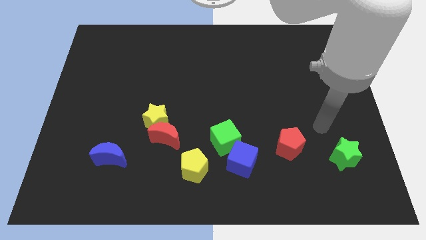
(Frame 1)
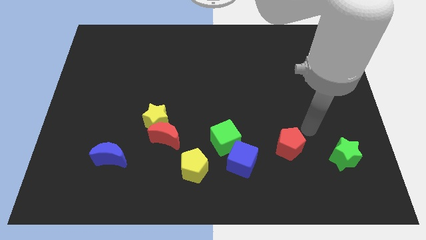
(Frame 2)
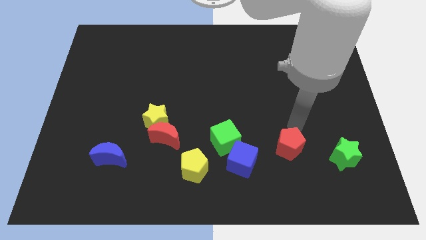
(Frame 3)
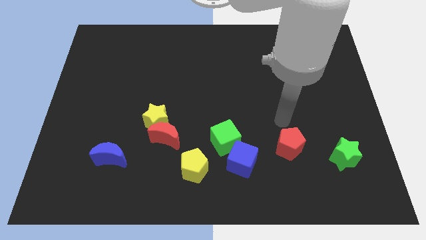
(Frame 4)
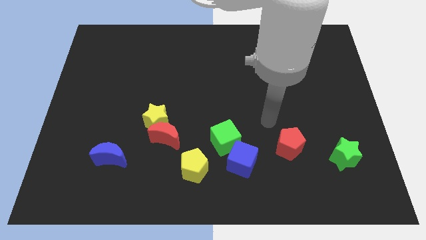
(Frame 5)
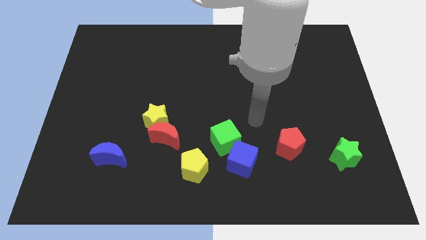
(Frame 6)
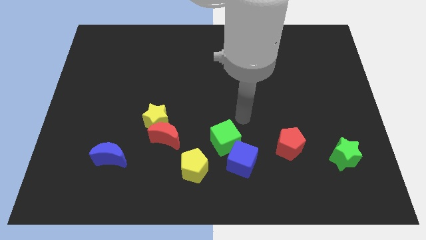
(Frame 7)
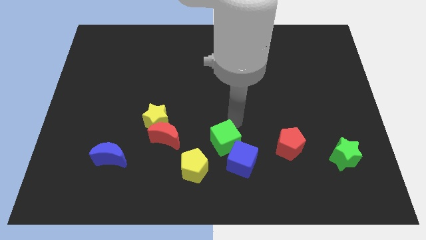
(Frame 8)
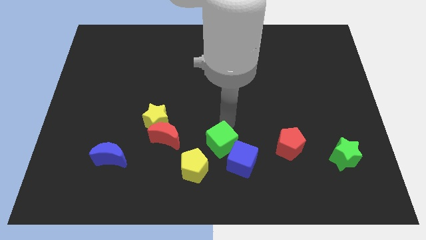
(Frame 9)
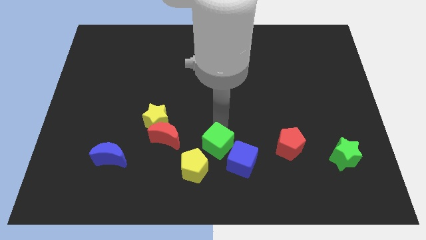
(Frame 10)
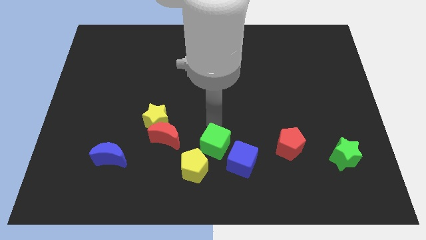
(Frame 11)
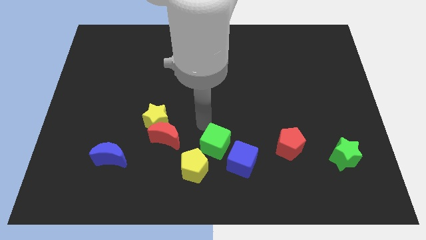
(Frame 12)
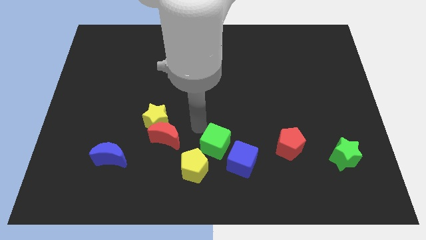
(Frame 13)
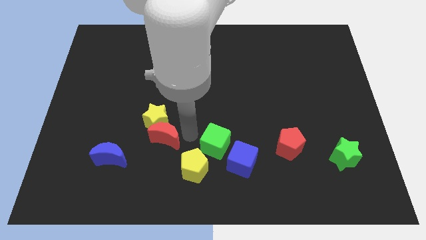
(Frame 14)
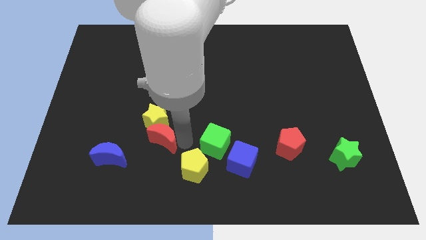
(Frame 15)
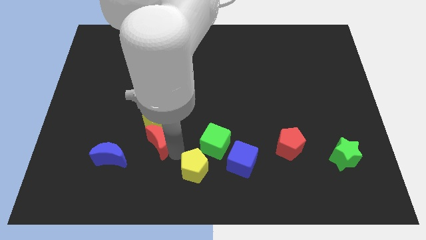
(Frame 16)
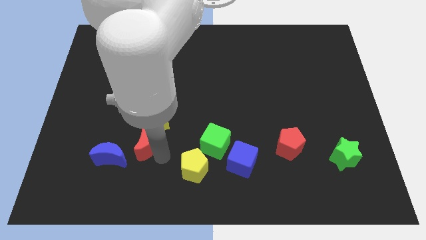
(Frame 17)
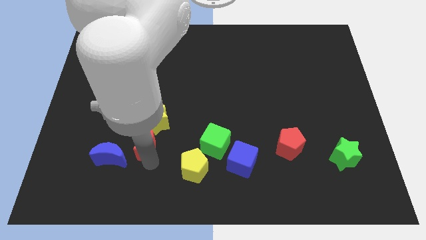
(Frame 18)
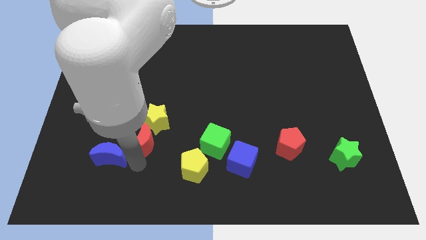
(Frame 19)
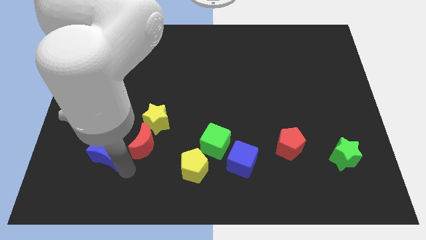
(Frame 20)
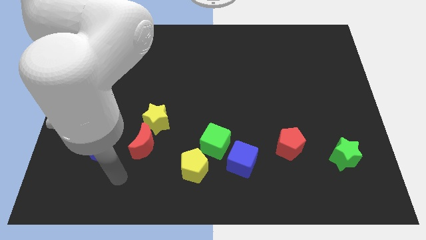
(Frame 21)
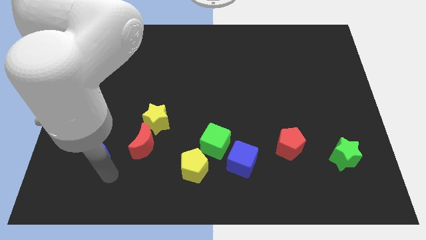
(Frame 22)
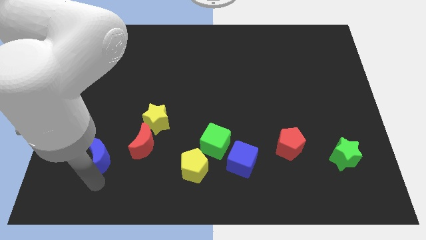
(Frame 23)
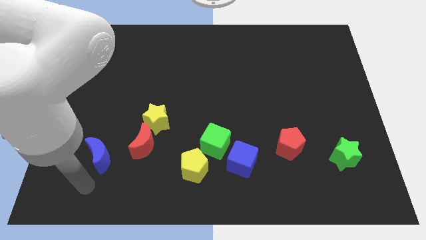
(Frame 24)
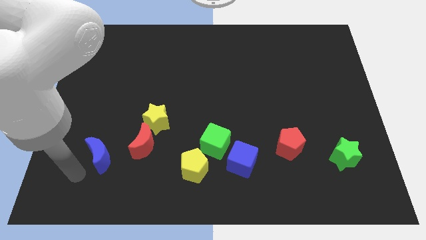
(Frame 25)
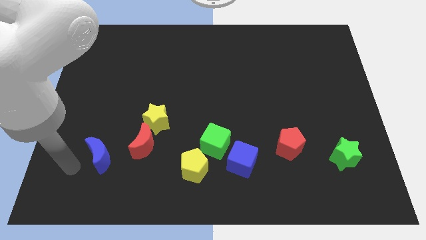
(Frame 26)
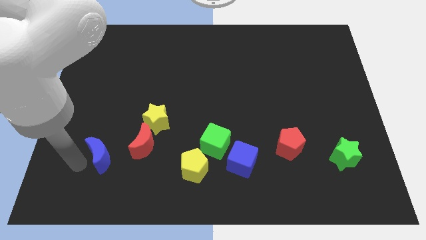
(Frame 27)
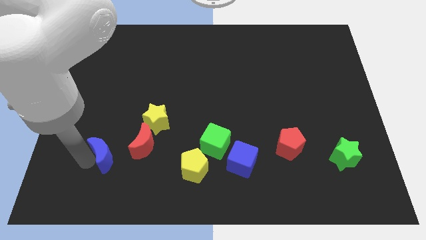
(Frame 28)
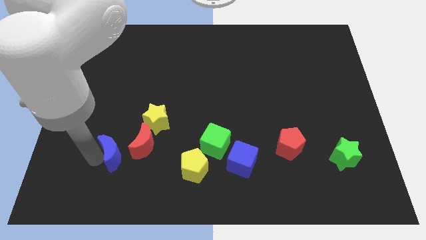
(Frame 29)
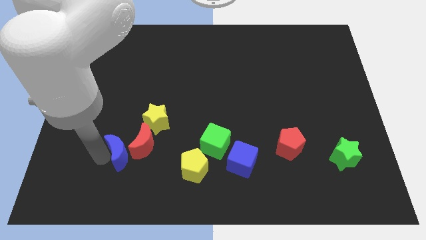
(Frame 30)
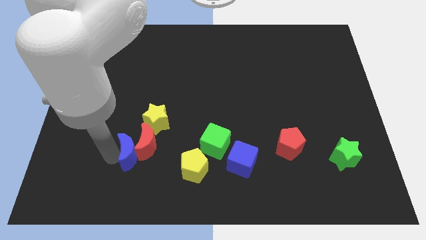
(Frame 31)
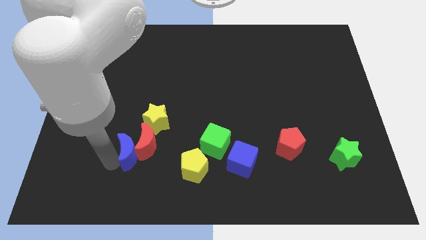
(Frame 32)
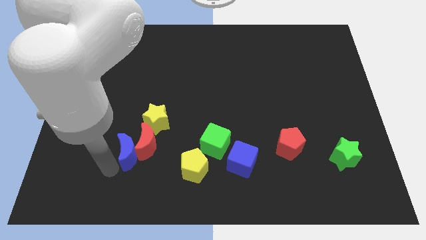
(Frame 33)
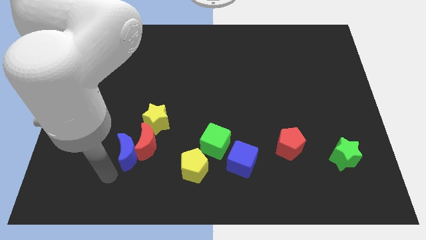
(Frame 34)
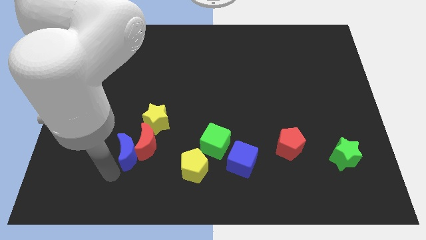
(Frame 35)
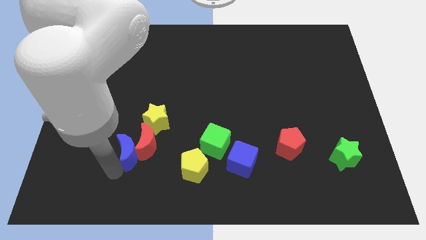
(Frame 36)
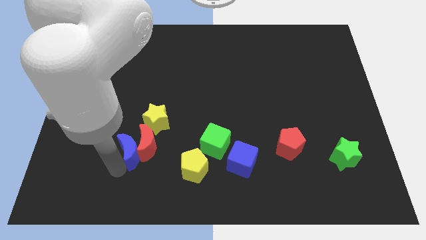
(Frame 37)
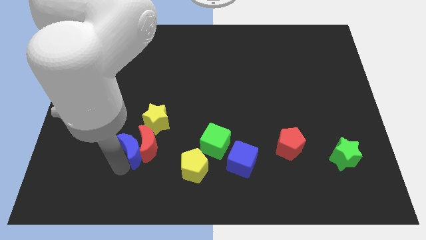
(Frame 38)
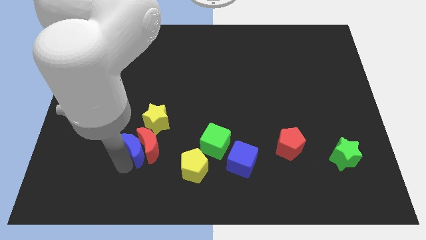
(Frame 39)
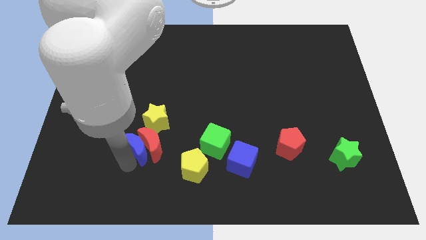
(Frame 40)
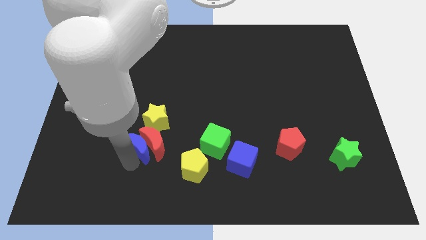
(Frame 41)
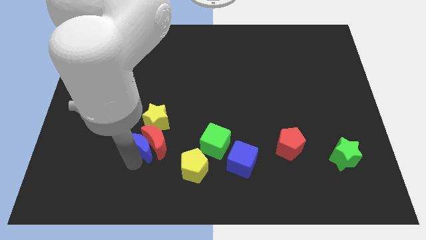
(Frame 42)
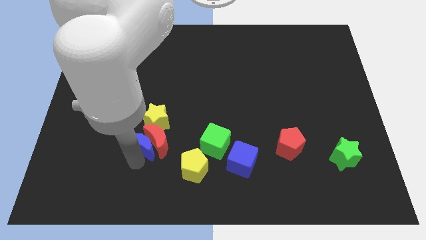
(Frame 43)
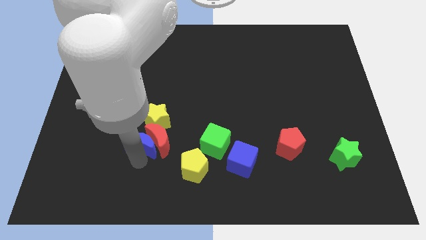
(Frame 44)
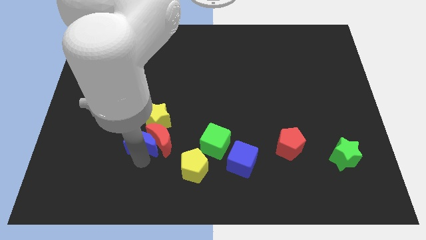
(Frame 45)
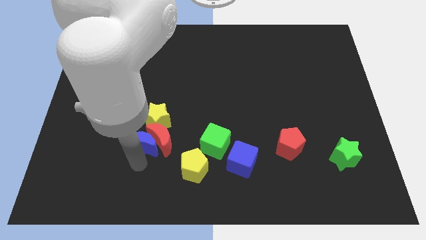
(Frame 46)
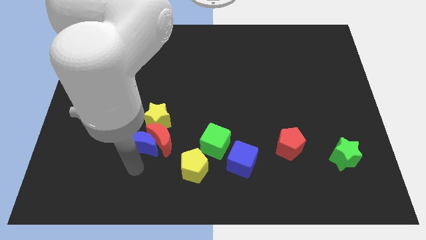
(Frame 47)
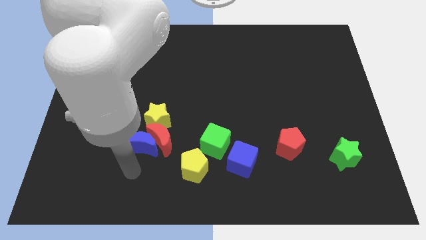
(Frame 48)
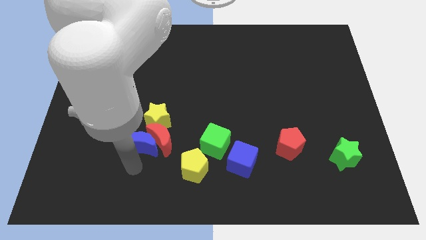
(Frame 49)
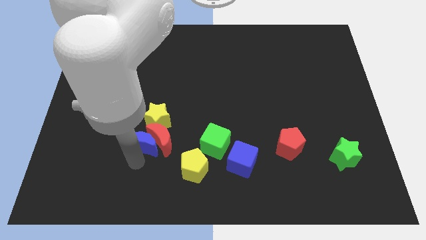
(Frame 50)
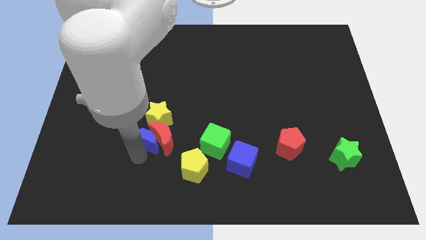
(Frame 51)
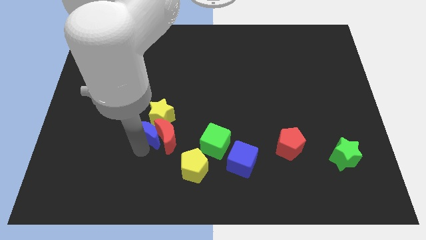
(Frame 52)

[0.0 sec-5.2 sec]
put the blue moon next to the yellow star

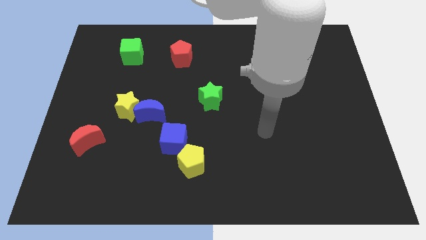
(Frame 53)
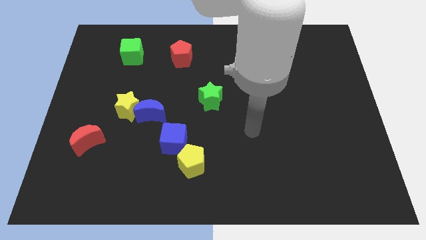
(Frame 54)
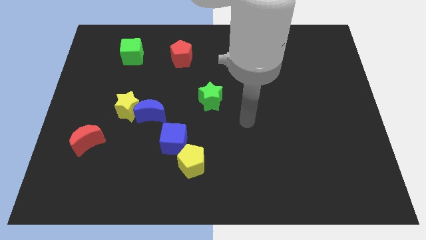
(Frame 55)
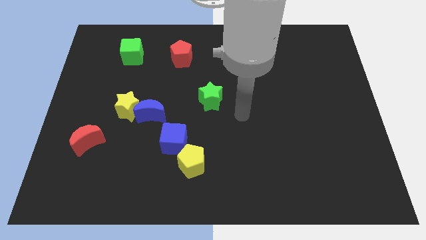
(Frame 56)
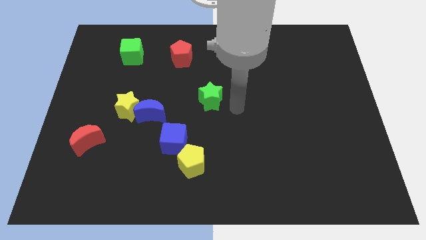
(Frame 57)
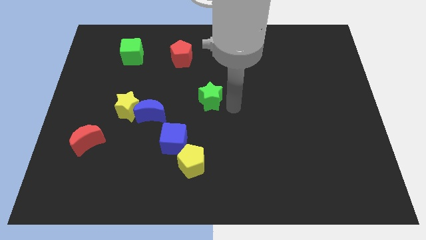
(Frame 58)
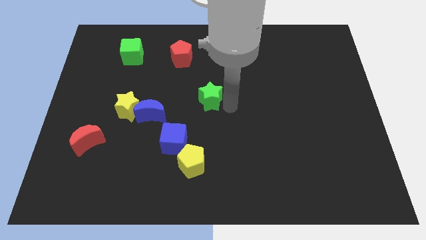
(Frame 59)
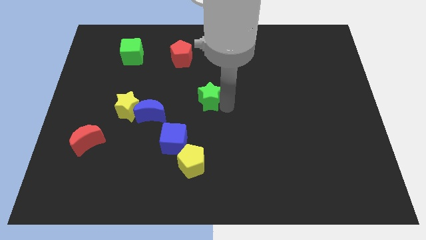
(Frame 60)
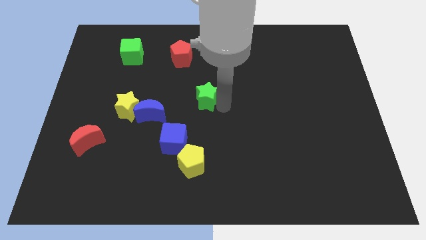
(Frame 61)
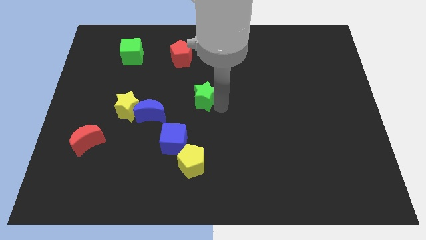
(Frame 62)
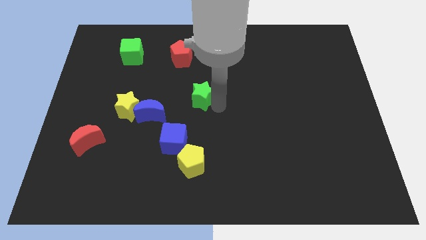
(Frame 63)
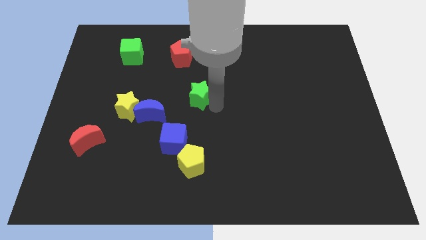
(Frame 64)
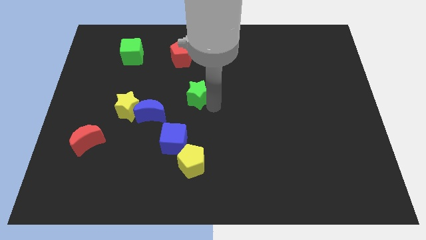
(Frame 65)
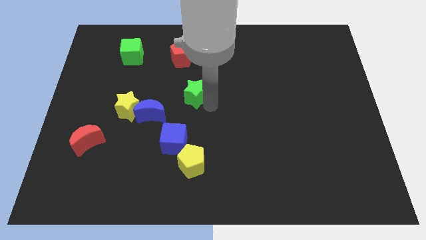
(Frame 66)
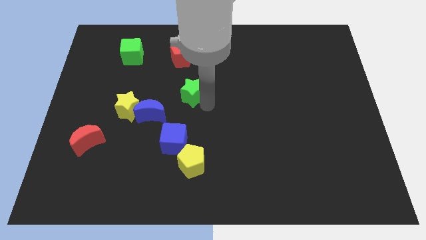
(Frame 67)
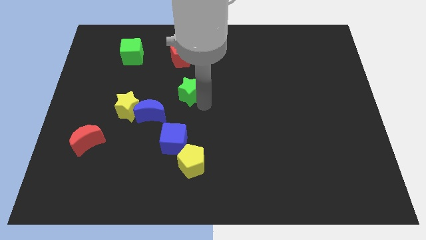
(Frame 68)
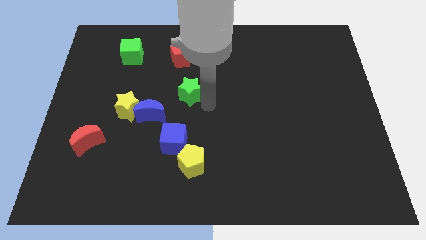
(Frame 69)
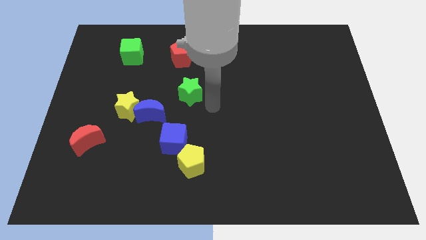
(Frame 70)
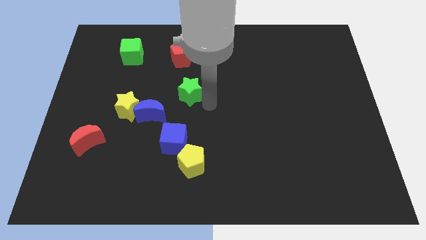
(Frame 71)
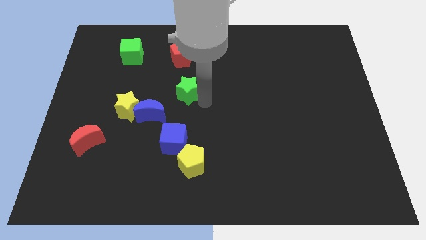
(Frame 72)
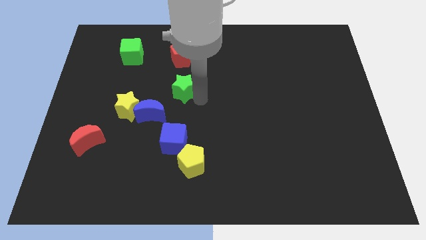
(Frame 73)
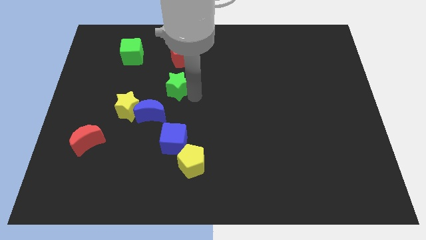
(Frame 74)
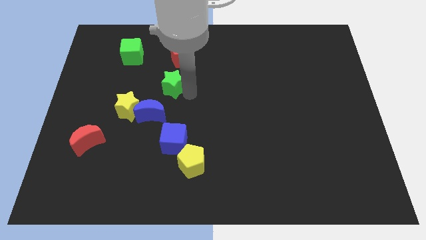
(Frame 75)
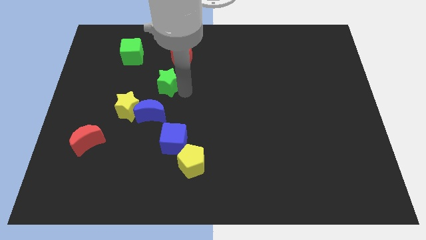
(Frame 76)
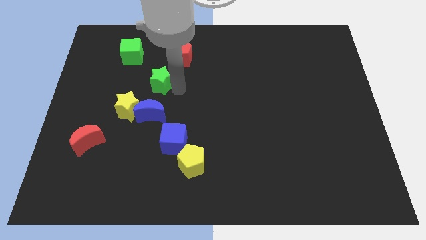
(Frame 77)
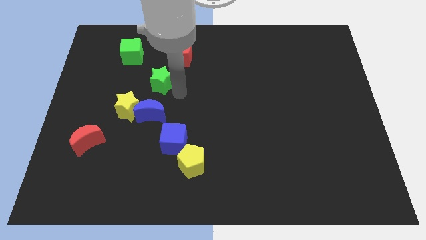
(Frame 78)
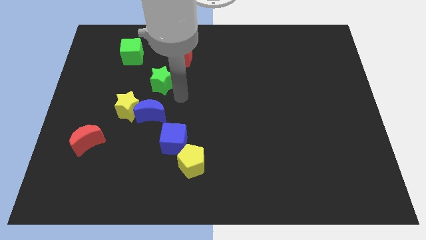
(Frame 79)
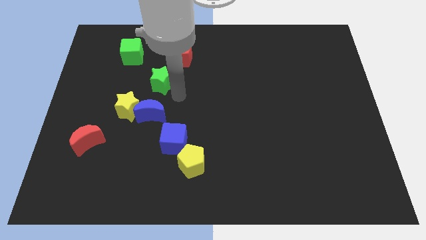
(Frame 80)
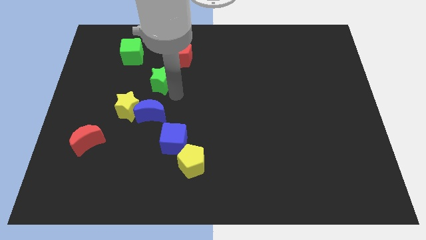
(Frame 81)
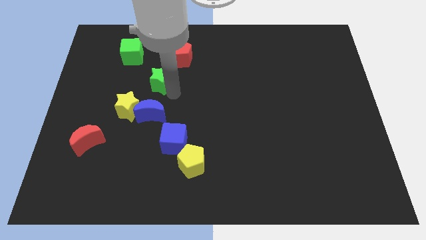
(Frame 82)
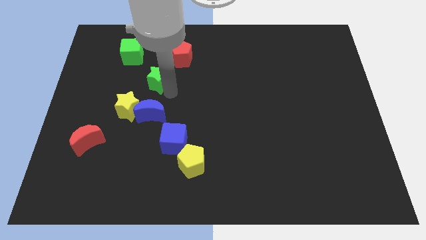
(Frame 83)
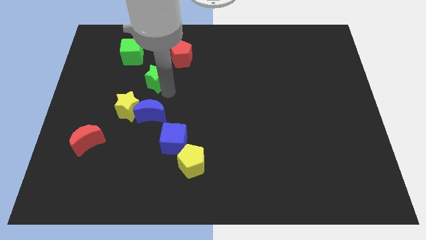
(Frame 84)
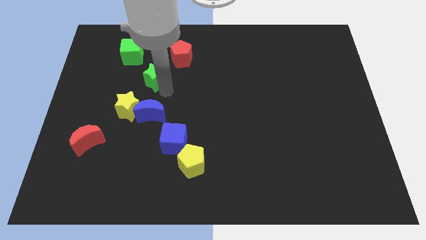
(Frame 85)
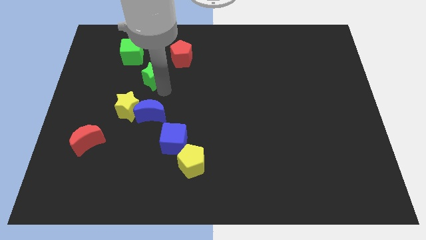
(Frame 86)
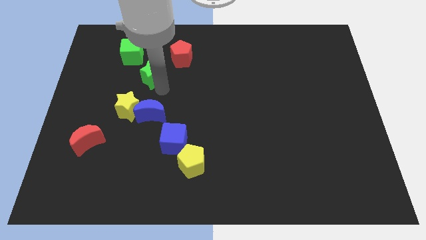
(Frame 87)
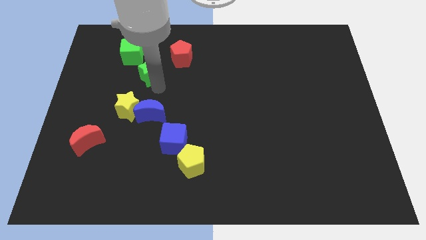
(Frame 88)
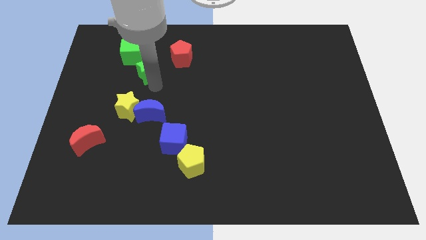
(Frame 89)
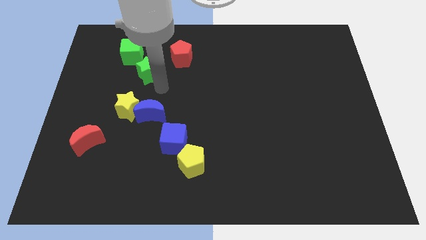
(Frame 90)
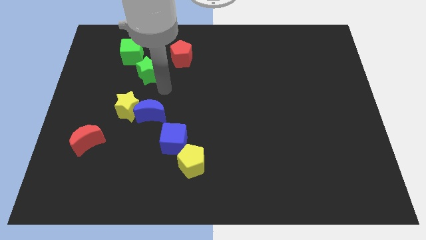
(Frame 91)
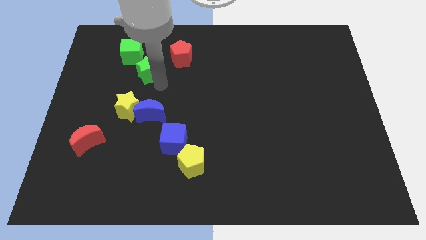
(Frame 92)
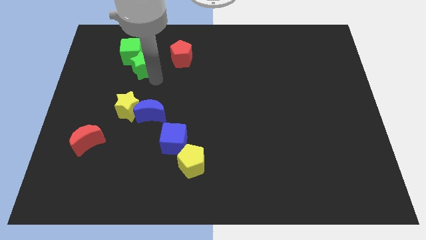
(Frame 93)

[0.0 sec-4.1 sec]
slide the green star to the green cube
